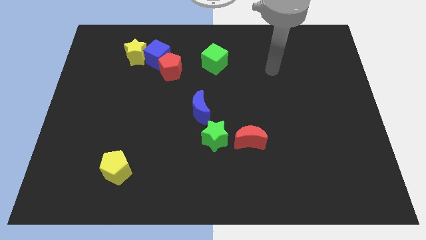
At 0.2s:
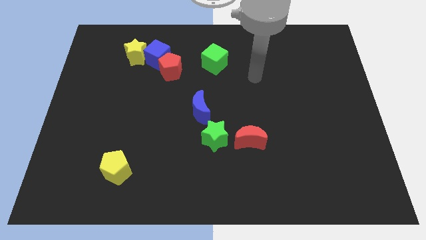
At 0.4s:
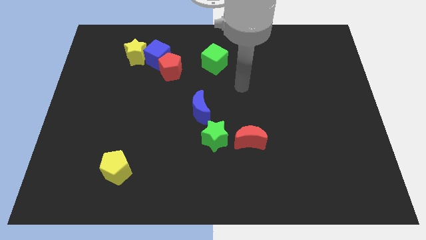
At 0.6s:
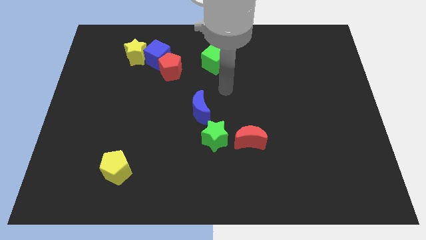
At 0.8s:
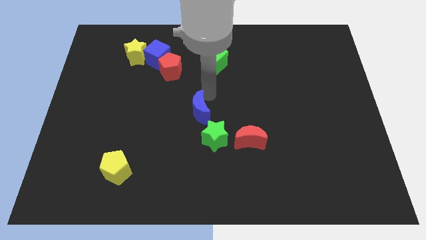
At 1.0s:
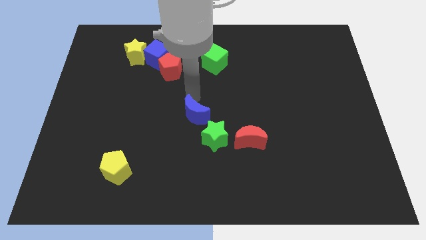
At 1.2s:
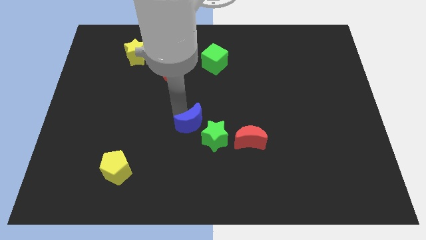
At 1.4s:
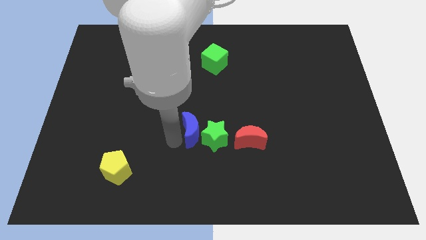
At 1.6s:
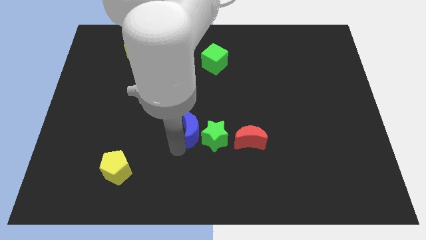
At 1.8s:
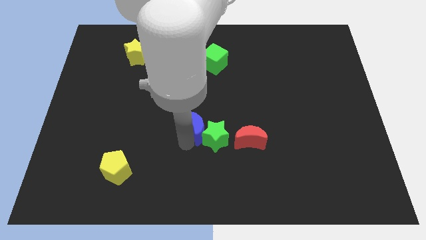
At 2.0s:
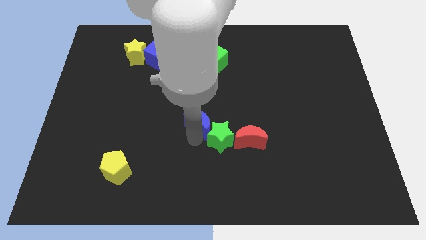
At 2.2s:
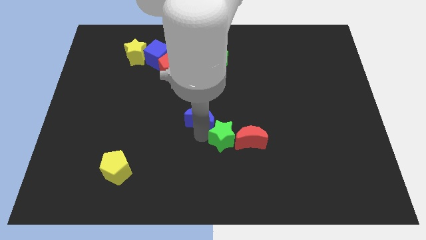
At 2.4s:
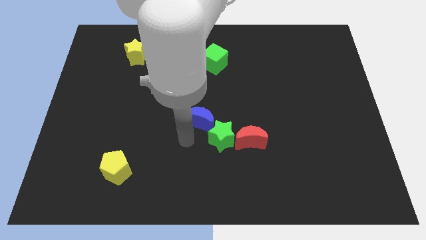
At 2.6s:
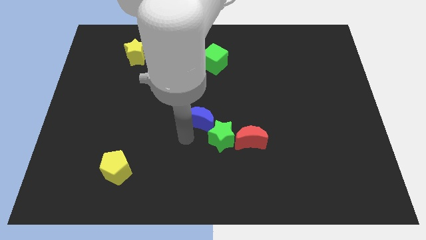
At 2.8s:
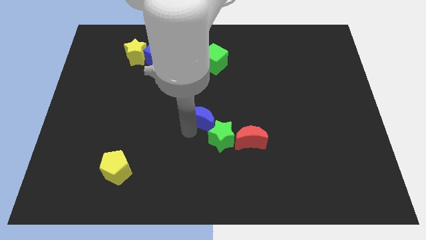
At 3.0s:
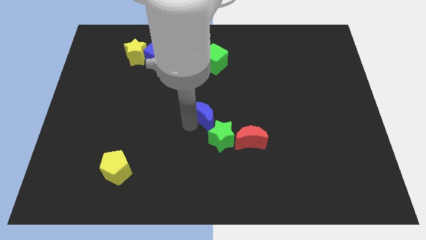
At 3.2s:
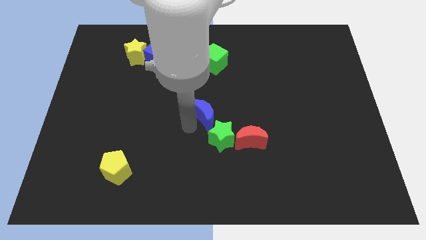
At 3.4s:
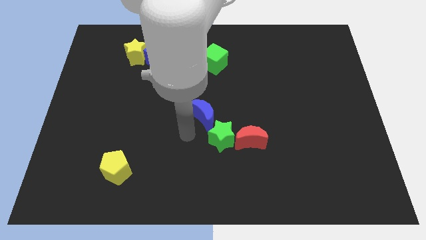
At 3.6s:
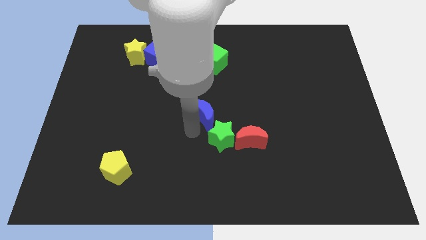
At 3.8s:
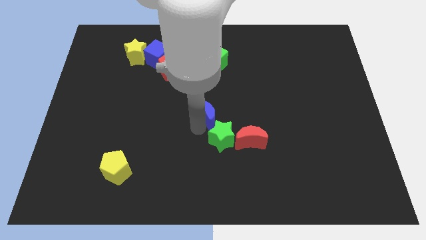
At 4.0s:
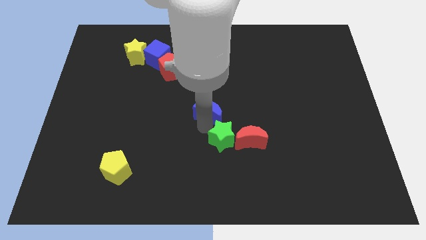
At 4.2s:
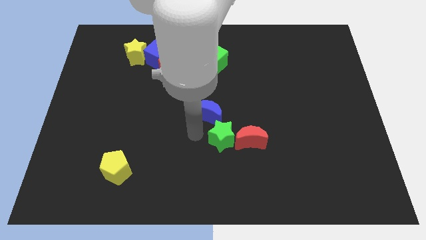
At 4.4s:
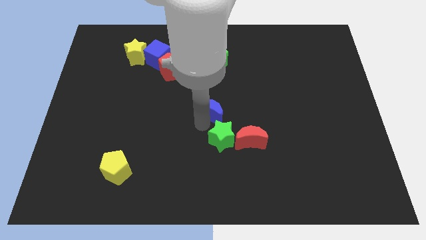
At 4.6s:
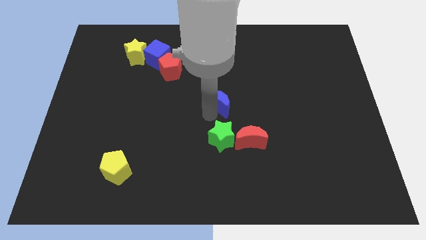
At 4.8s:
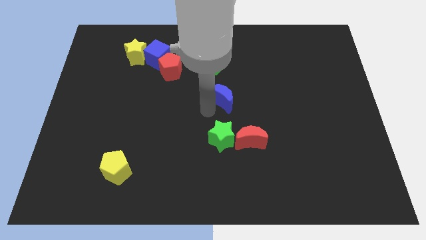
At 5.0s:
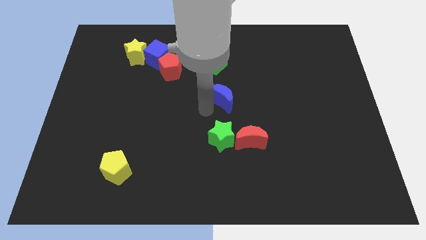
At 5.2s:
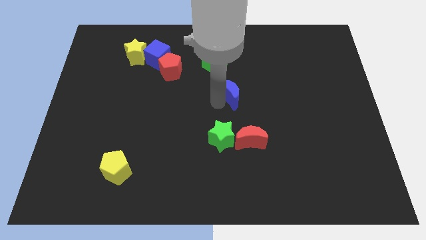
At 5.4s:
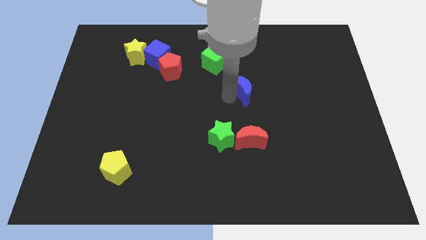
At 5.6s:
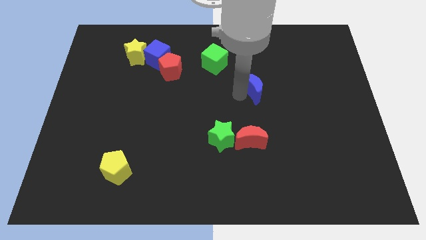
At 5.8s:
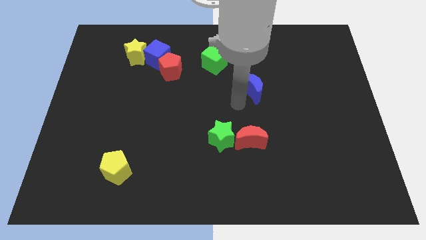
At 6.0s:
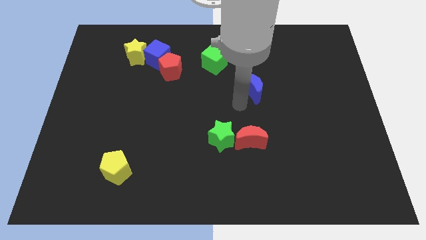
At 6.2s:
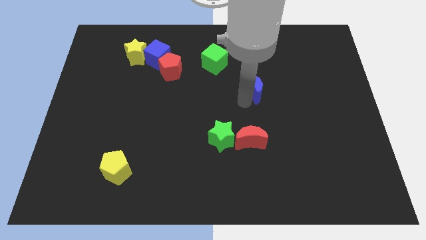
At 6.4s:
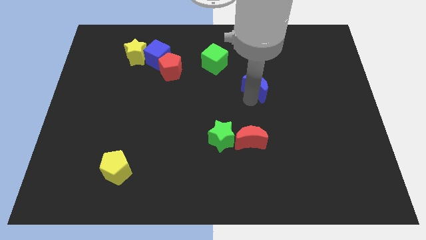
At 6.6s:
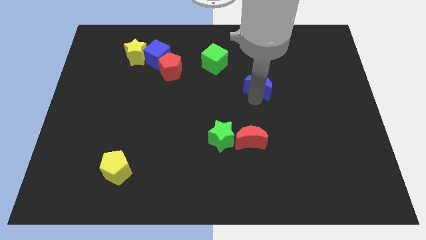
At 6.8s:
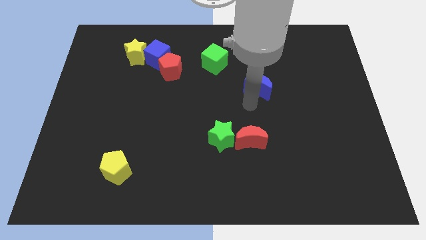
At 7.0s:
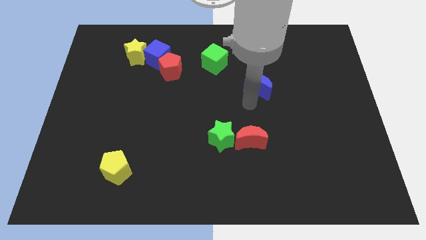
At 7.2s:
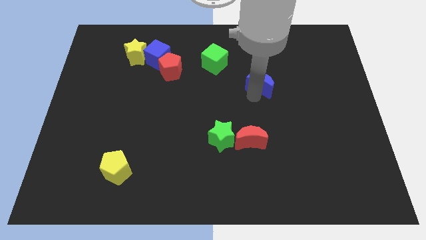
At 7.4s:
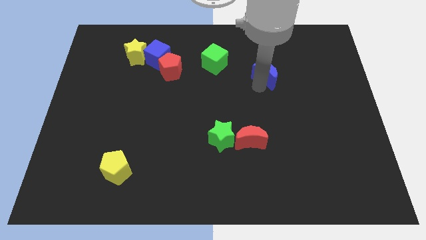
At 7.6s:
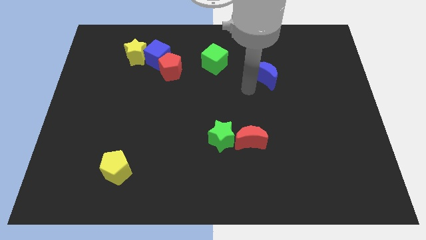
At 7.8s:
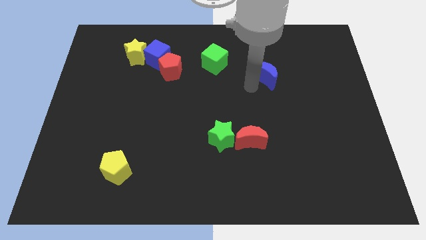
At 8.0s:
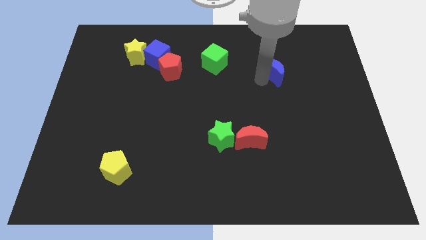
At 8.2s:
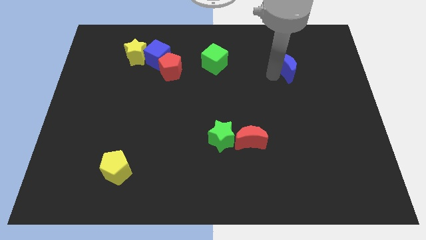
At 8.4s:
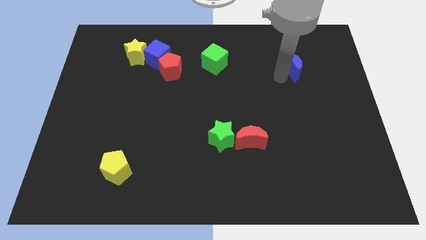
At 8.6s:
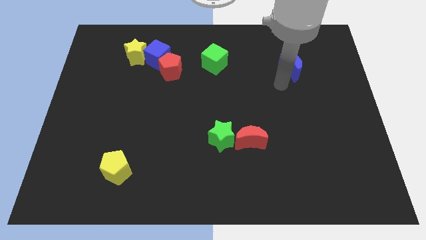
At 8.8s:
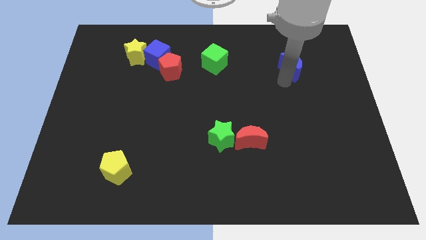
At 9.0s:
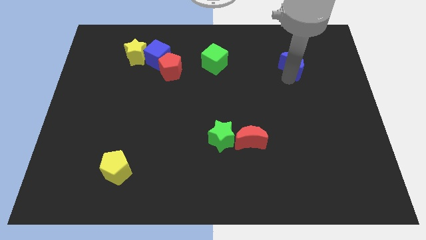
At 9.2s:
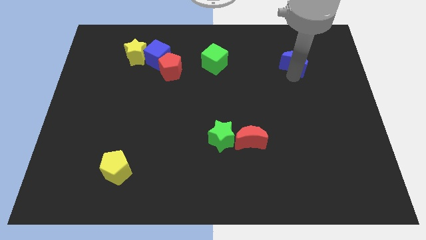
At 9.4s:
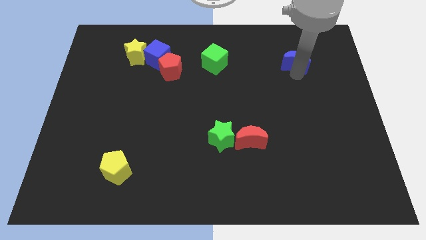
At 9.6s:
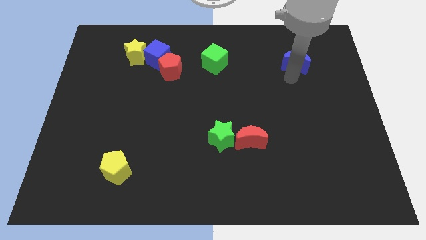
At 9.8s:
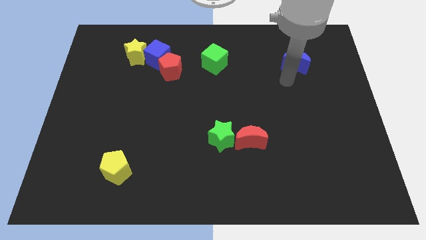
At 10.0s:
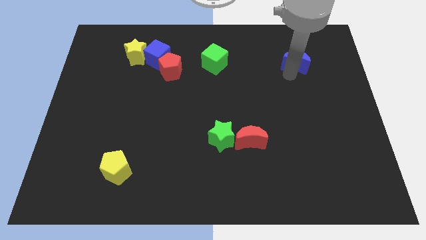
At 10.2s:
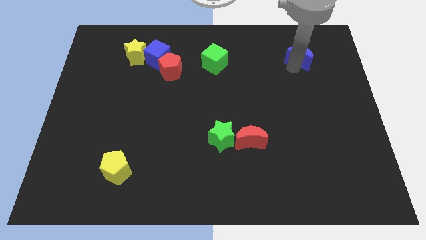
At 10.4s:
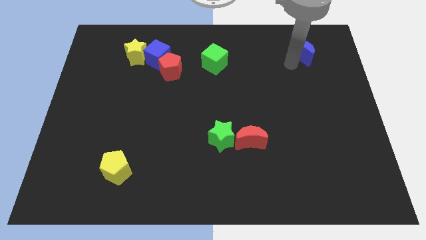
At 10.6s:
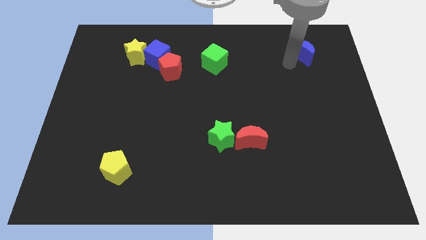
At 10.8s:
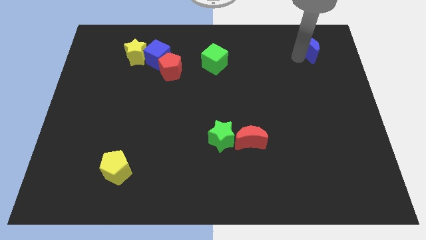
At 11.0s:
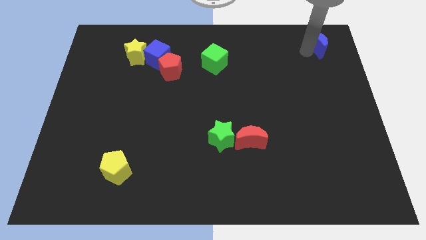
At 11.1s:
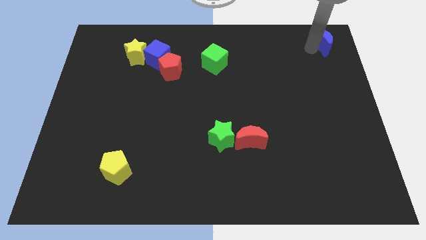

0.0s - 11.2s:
put the blue moon to the top right corner
